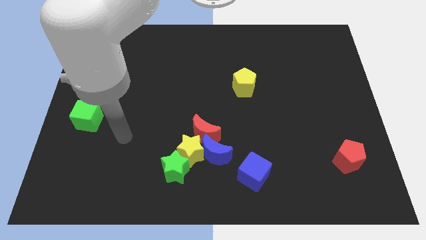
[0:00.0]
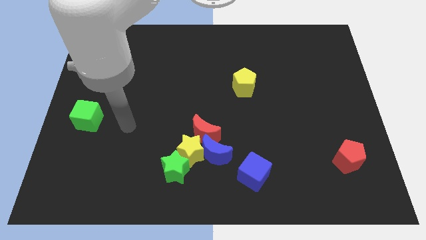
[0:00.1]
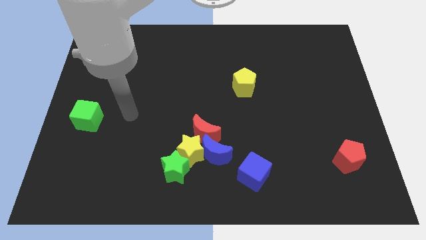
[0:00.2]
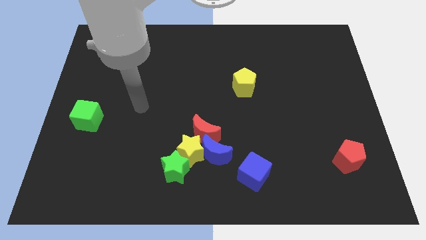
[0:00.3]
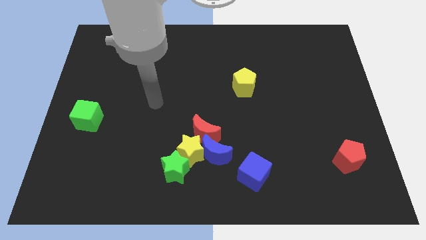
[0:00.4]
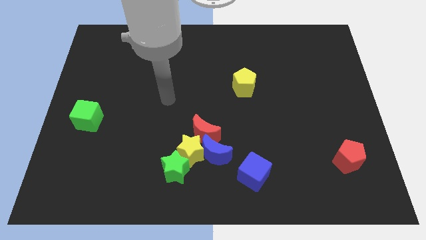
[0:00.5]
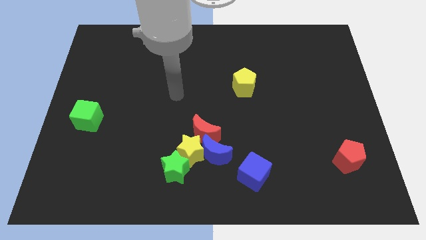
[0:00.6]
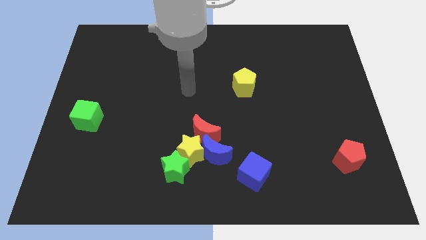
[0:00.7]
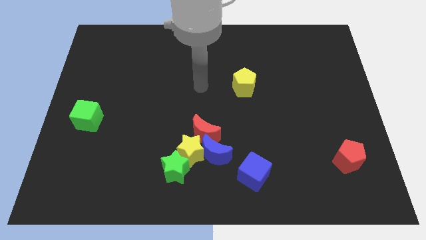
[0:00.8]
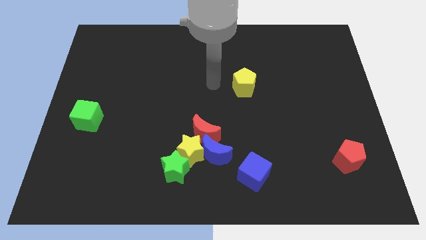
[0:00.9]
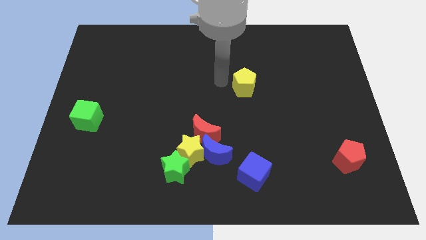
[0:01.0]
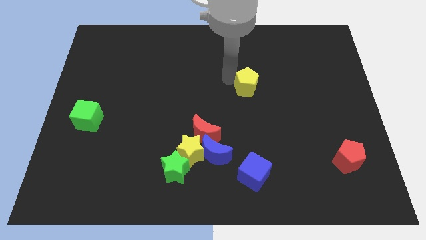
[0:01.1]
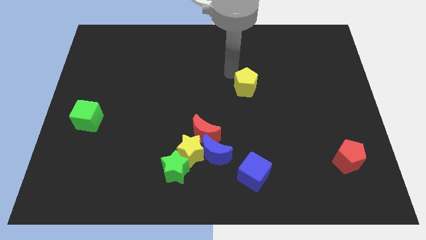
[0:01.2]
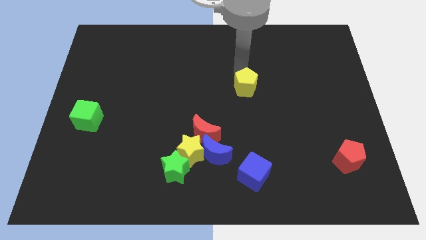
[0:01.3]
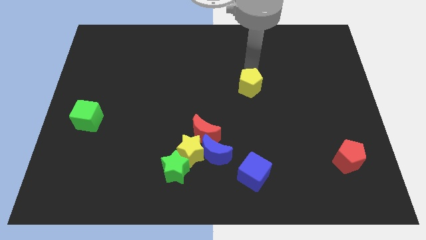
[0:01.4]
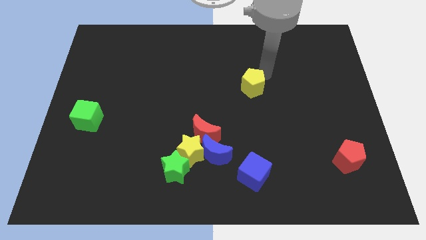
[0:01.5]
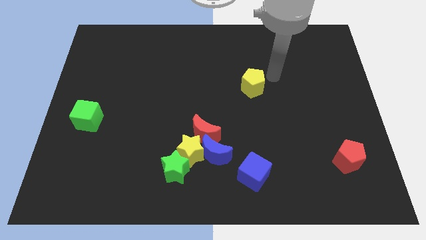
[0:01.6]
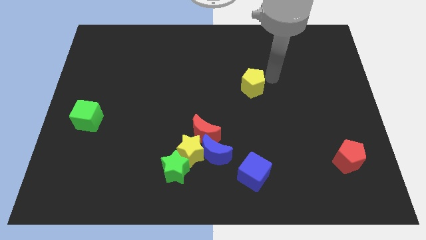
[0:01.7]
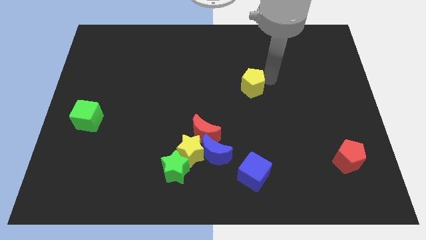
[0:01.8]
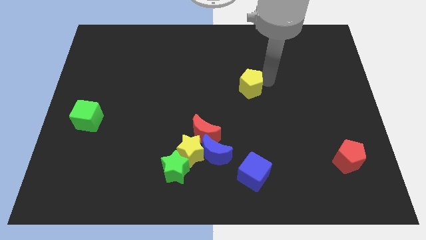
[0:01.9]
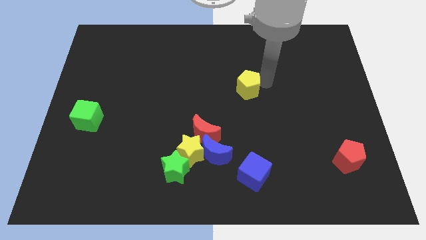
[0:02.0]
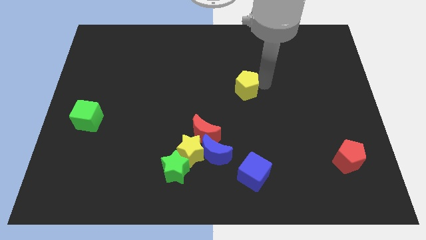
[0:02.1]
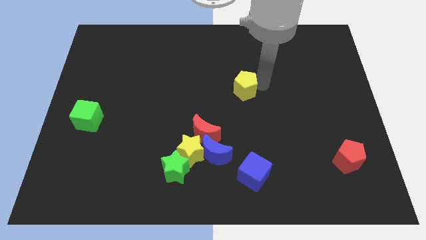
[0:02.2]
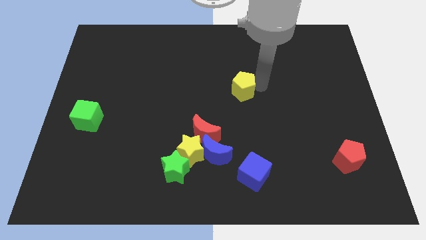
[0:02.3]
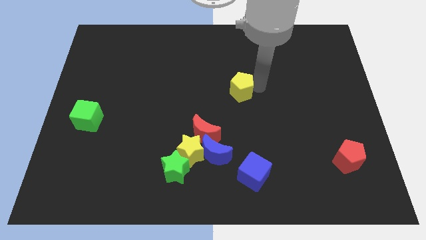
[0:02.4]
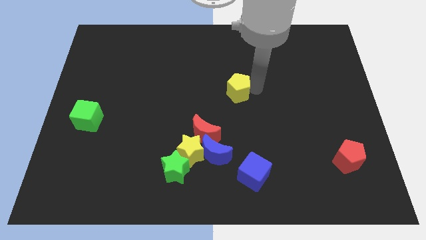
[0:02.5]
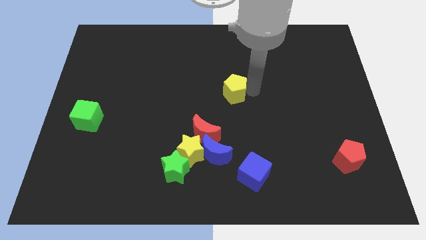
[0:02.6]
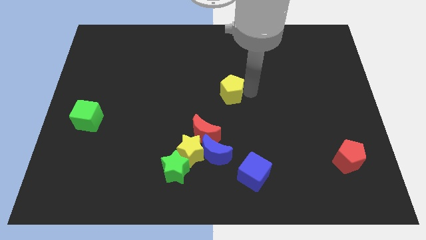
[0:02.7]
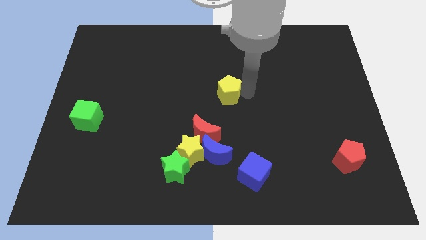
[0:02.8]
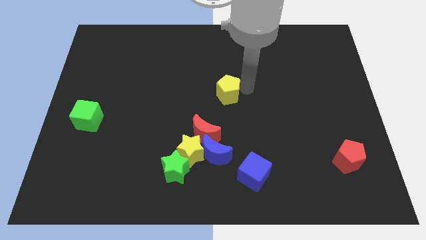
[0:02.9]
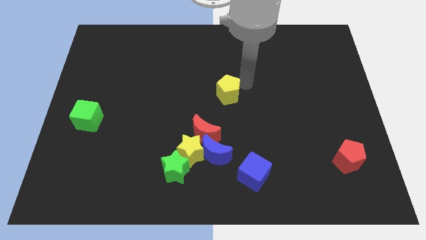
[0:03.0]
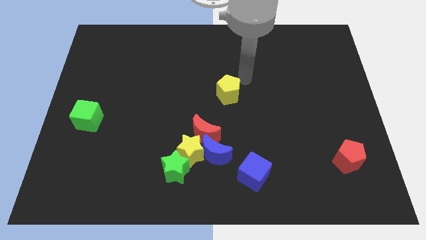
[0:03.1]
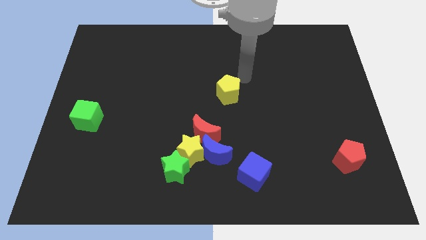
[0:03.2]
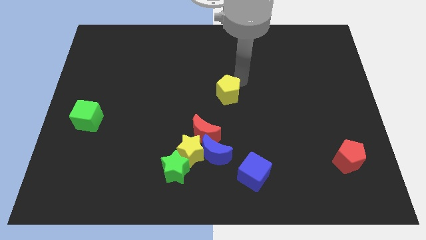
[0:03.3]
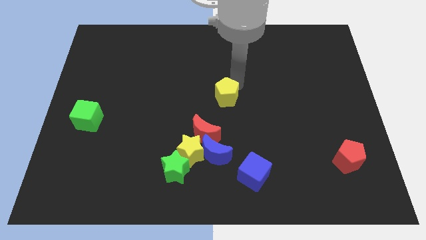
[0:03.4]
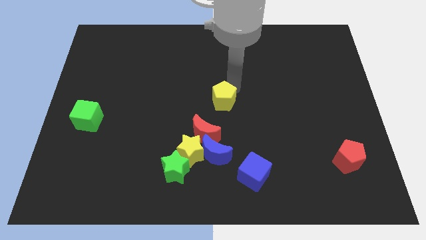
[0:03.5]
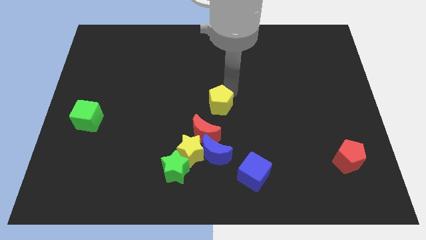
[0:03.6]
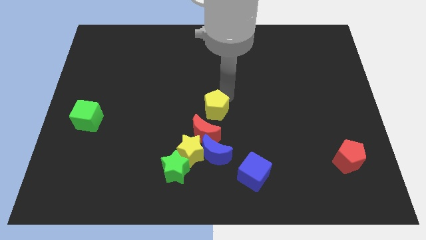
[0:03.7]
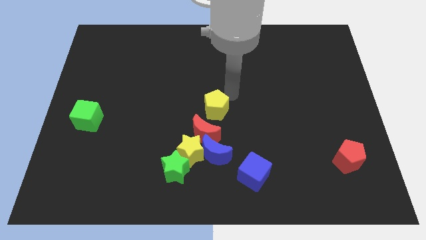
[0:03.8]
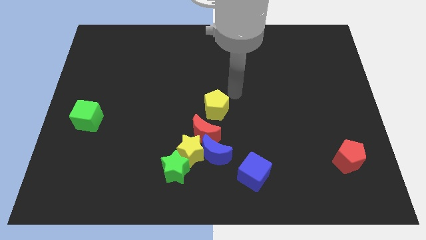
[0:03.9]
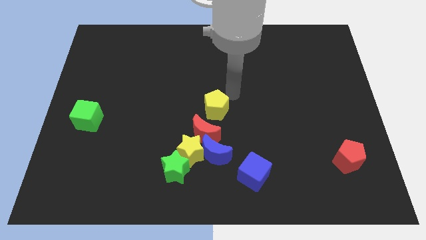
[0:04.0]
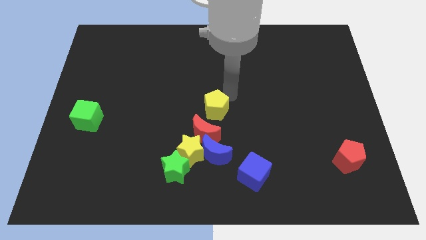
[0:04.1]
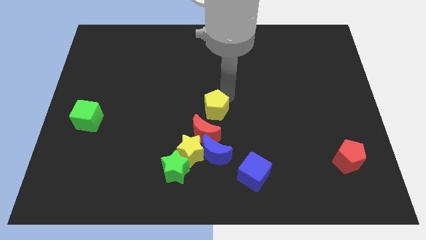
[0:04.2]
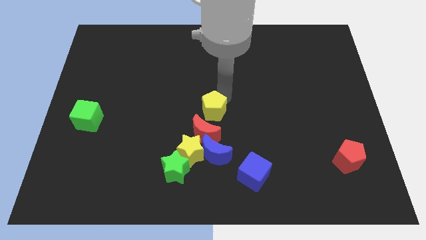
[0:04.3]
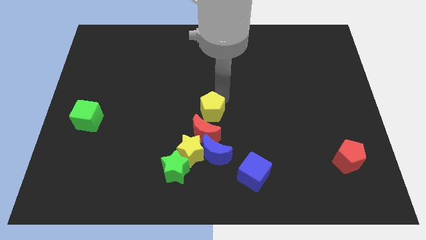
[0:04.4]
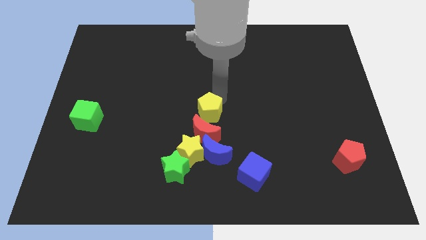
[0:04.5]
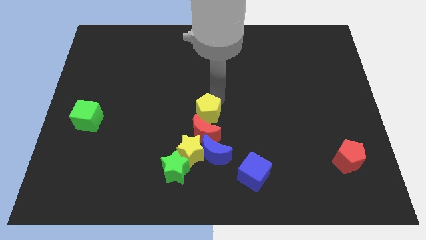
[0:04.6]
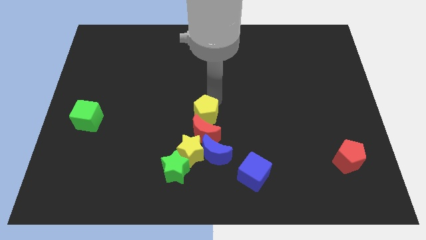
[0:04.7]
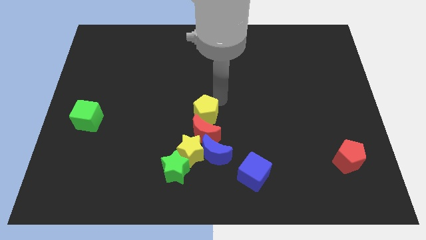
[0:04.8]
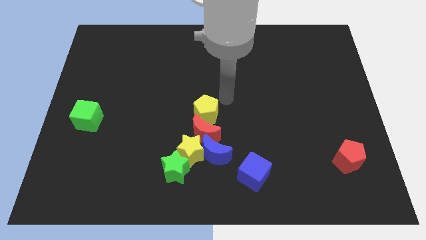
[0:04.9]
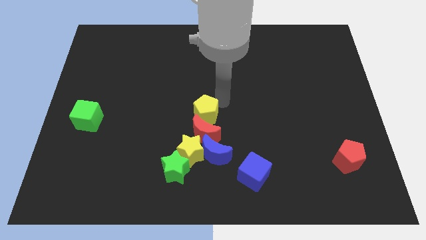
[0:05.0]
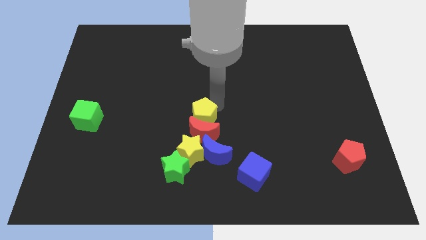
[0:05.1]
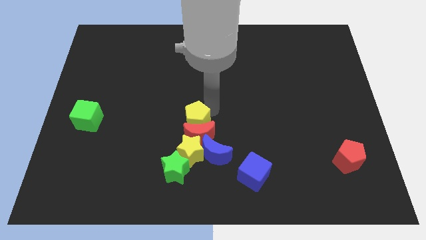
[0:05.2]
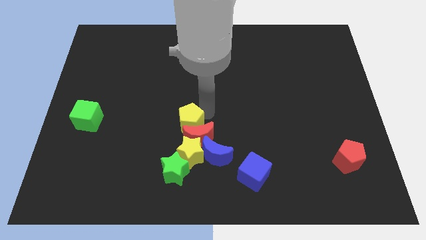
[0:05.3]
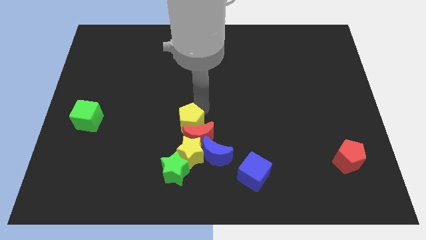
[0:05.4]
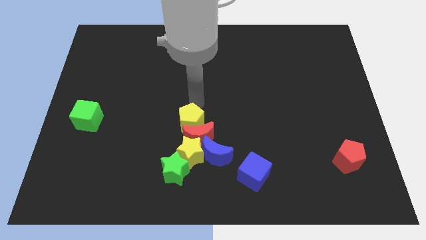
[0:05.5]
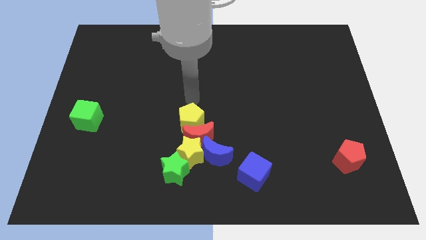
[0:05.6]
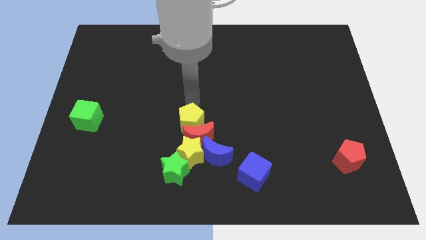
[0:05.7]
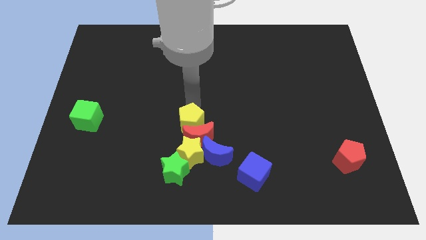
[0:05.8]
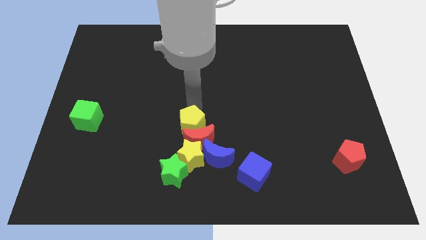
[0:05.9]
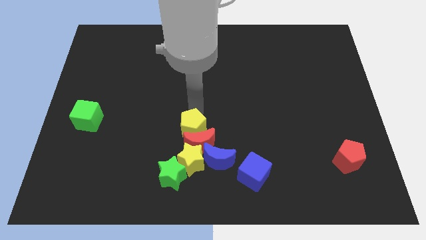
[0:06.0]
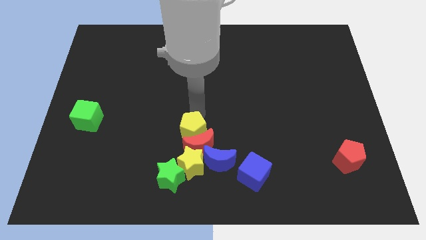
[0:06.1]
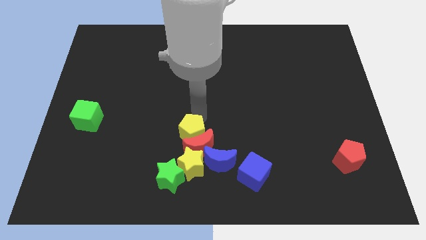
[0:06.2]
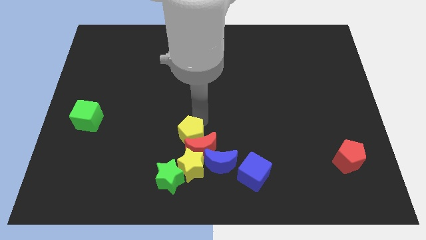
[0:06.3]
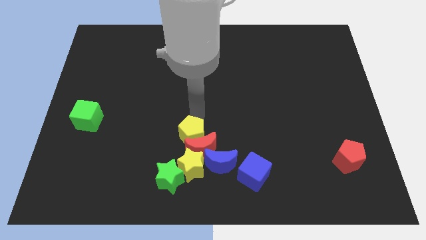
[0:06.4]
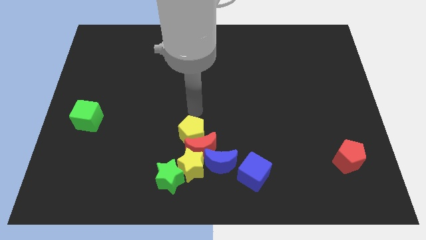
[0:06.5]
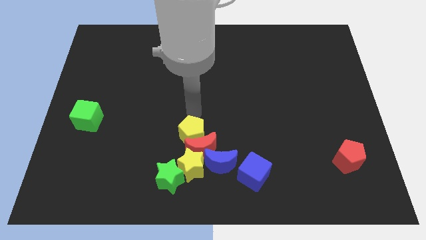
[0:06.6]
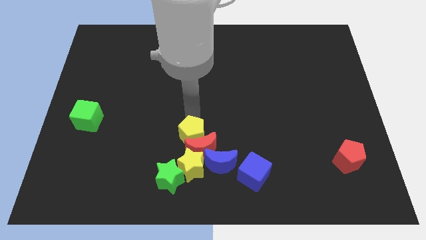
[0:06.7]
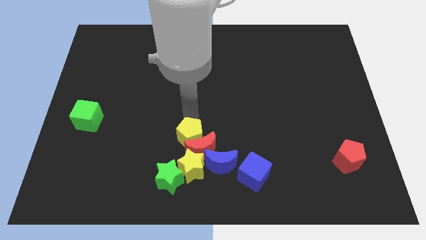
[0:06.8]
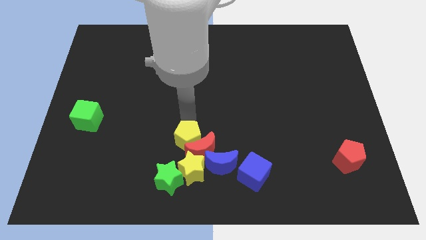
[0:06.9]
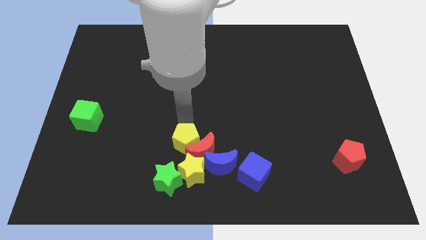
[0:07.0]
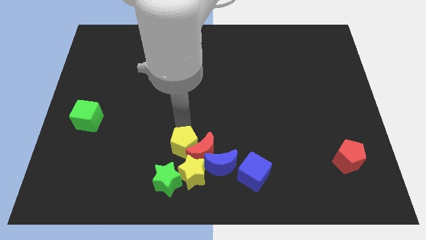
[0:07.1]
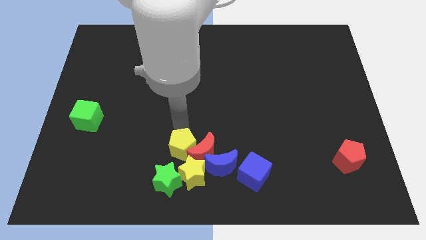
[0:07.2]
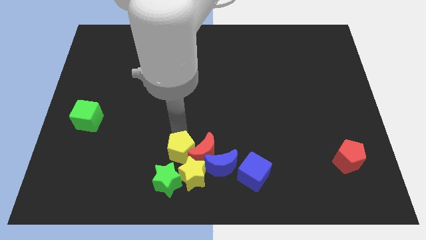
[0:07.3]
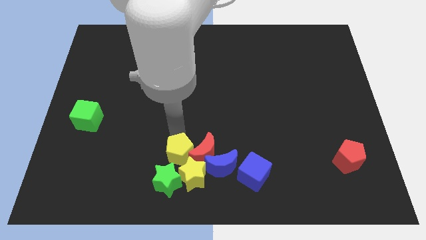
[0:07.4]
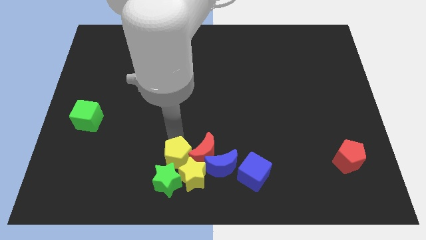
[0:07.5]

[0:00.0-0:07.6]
put the yellow pentagon to the yellow star
